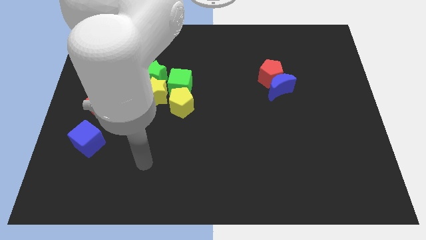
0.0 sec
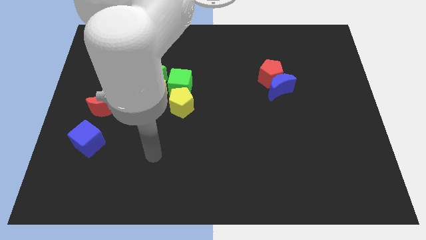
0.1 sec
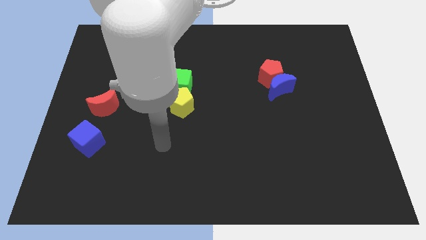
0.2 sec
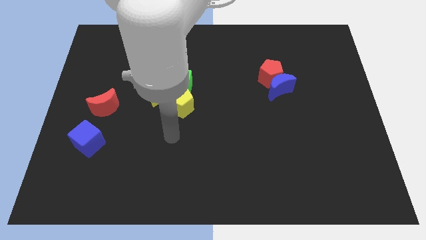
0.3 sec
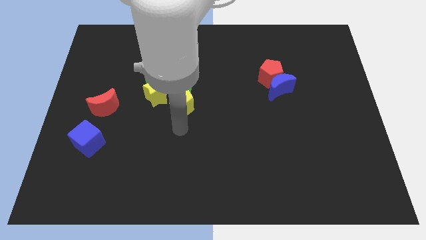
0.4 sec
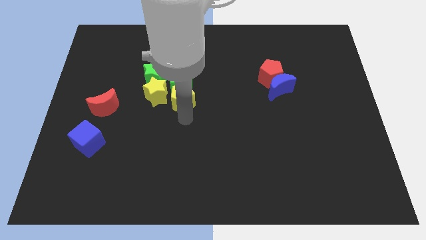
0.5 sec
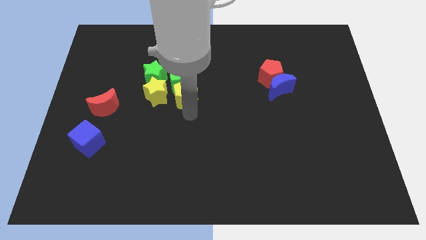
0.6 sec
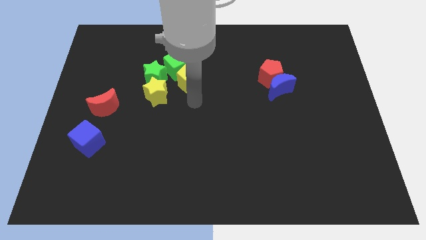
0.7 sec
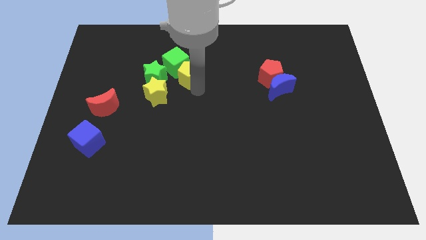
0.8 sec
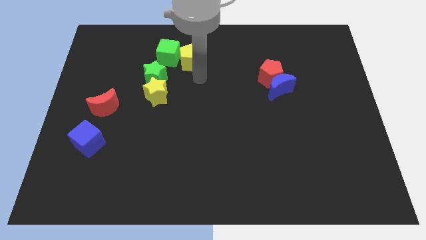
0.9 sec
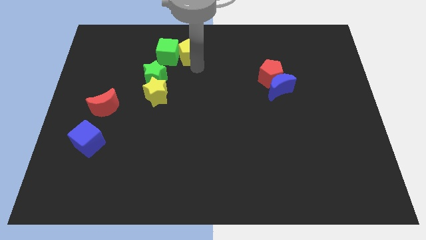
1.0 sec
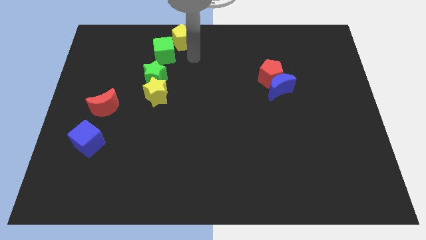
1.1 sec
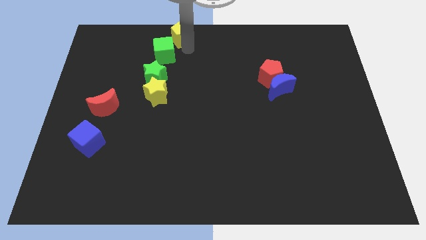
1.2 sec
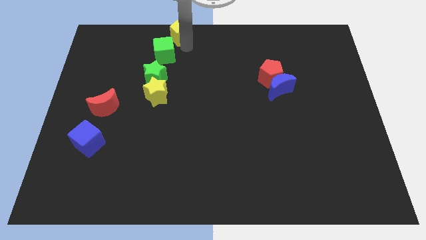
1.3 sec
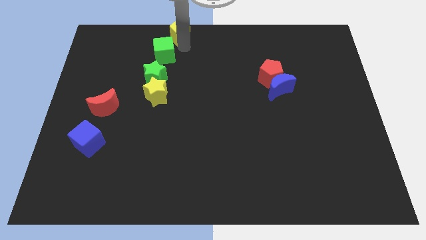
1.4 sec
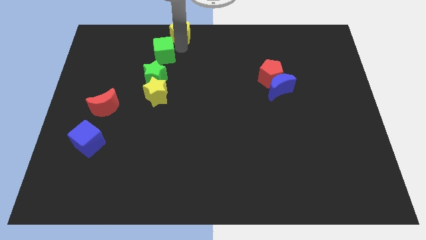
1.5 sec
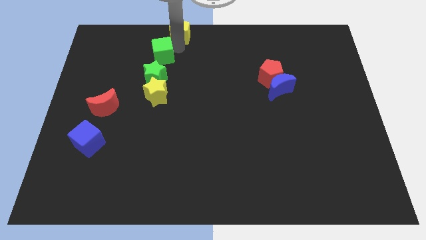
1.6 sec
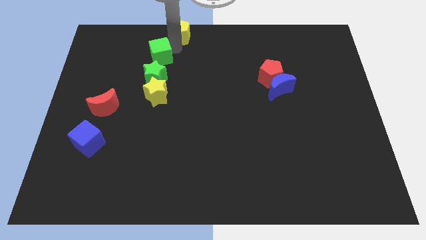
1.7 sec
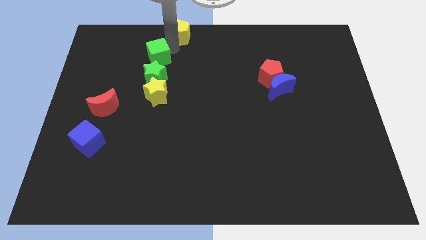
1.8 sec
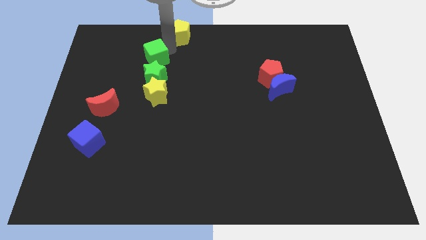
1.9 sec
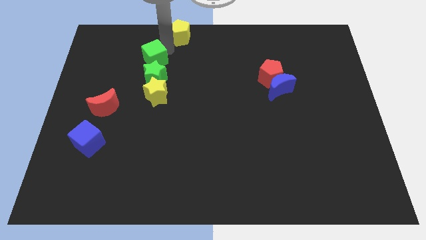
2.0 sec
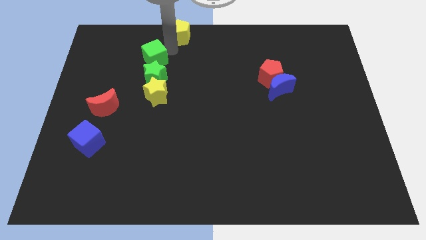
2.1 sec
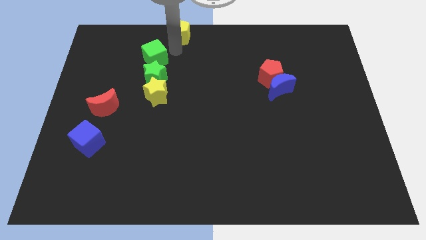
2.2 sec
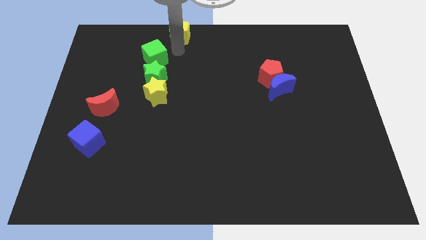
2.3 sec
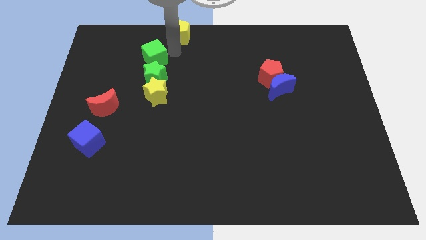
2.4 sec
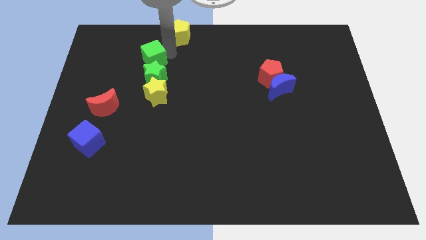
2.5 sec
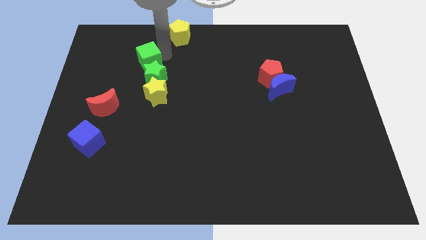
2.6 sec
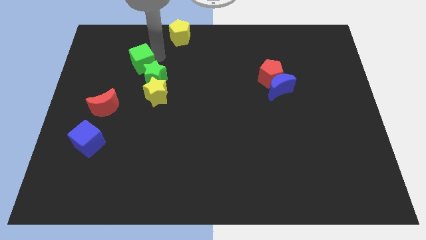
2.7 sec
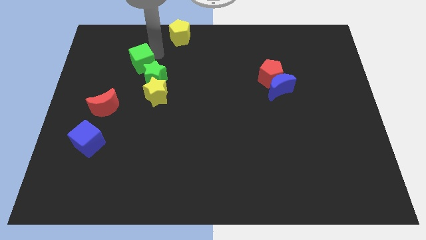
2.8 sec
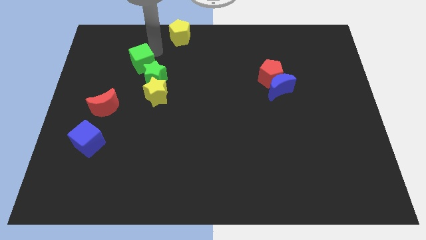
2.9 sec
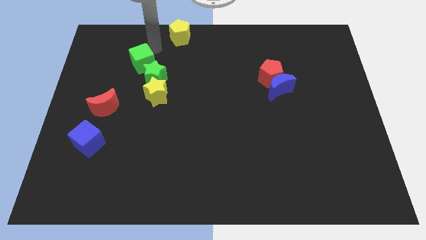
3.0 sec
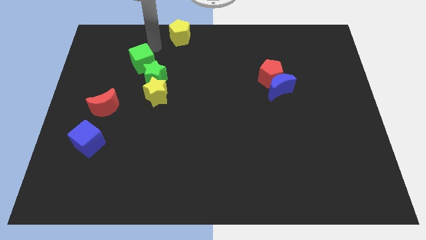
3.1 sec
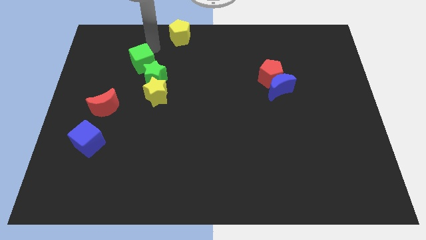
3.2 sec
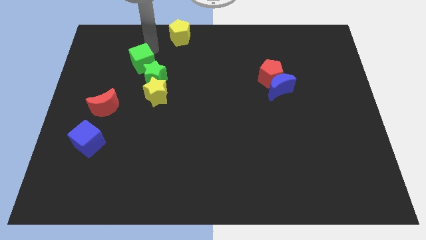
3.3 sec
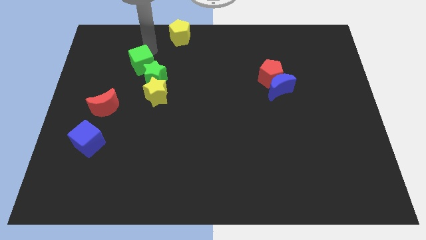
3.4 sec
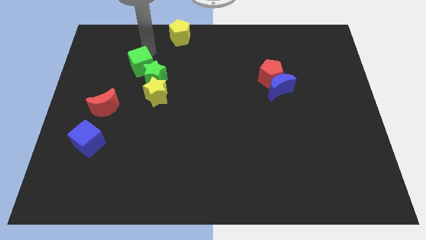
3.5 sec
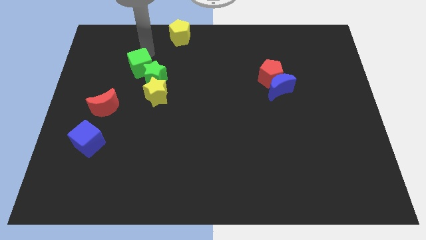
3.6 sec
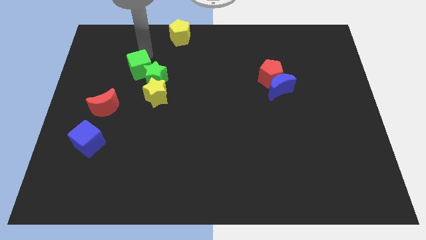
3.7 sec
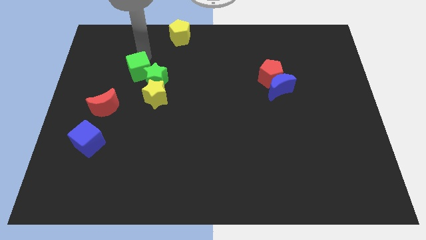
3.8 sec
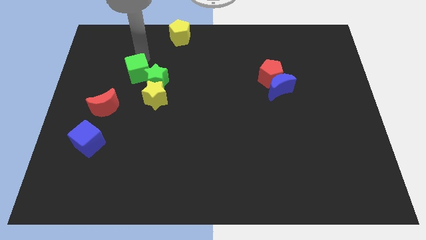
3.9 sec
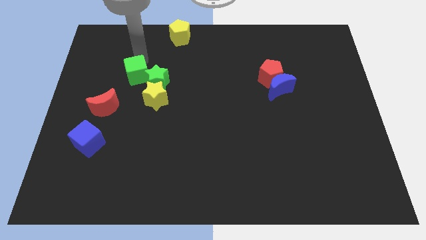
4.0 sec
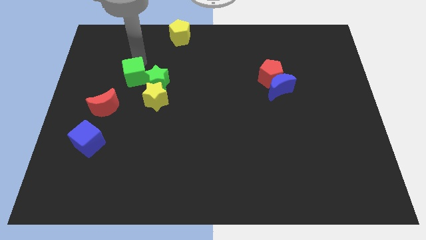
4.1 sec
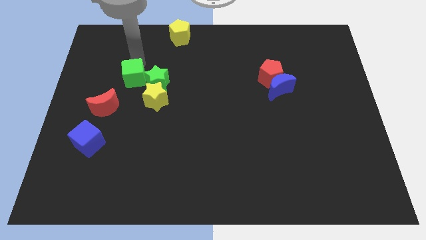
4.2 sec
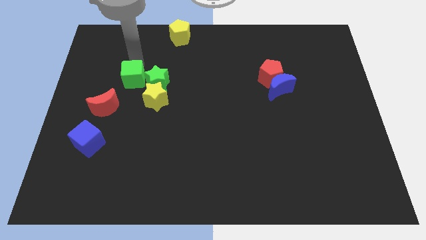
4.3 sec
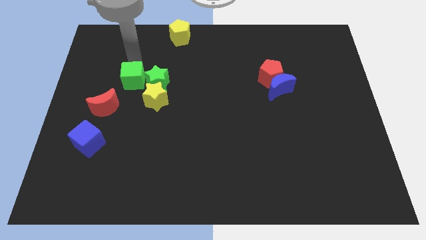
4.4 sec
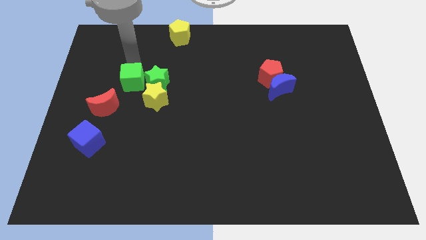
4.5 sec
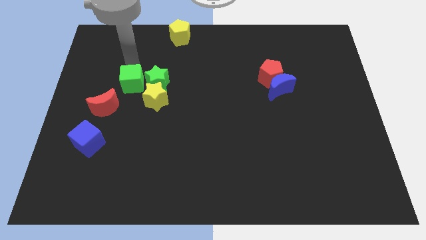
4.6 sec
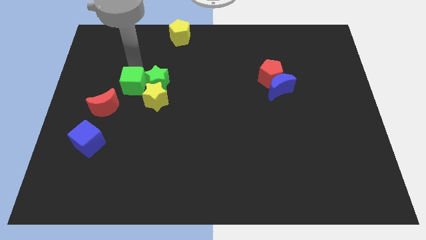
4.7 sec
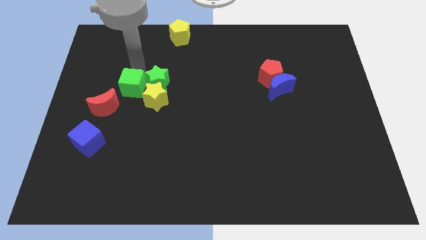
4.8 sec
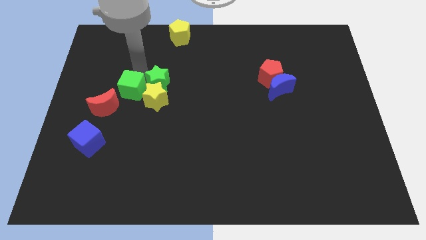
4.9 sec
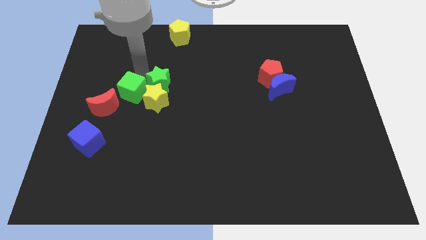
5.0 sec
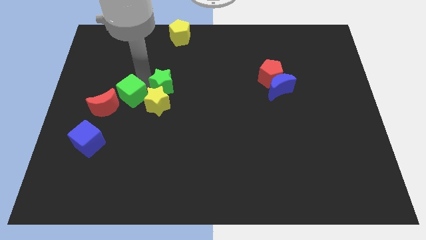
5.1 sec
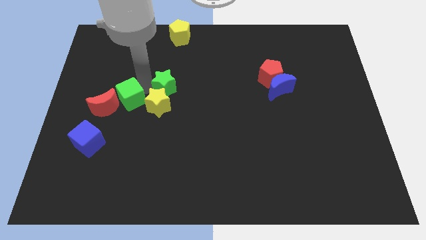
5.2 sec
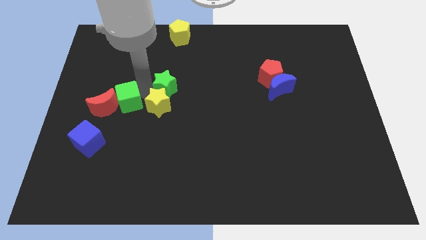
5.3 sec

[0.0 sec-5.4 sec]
put the green cube close to the red moon

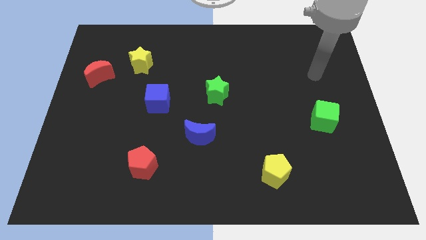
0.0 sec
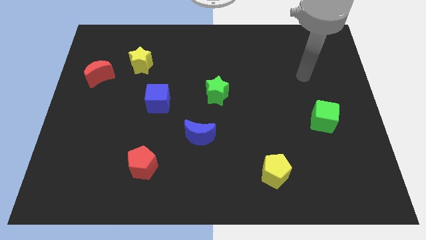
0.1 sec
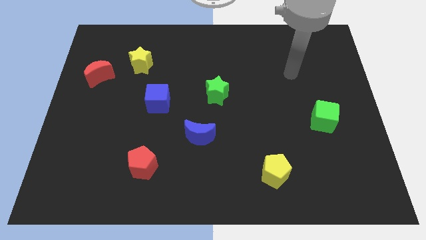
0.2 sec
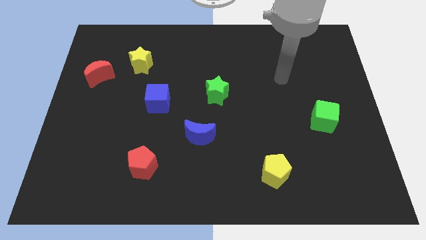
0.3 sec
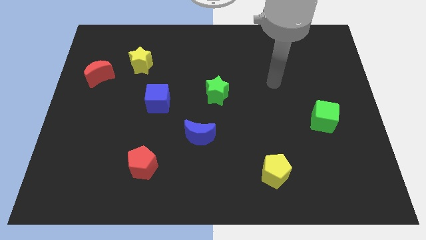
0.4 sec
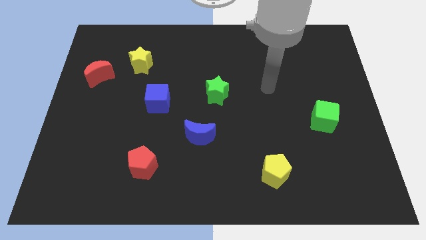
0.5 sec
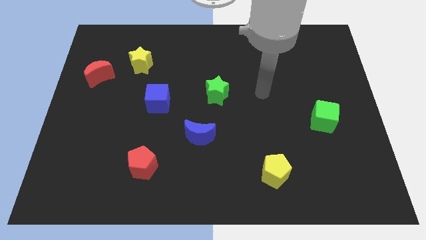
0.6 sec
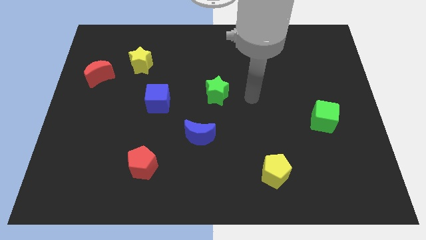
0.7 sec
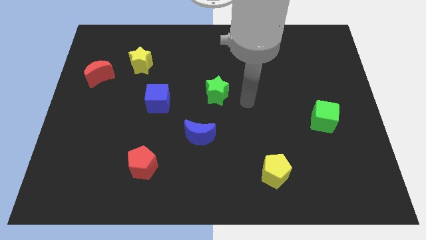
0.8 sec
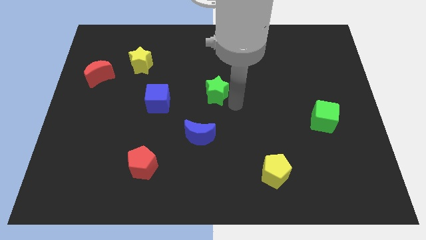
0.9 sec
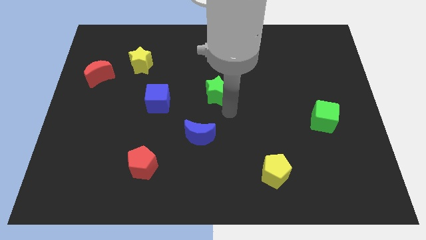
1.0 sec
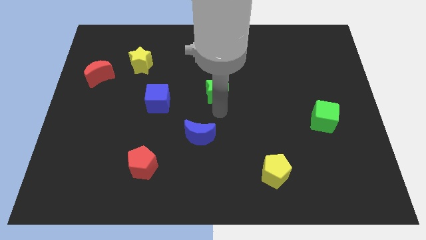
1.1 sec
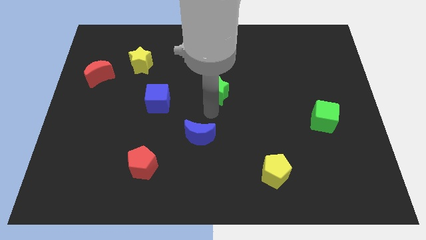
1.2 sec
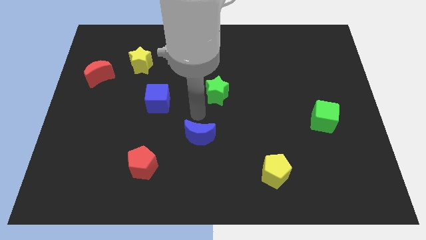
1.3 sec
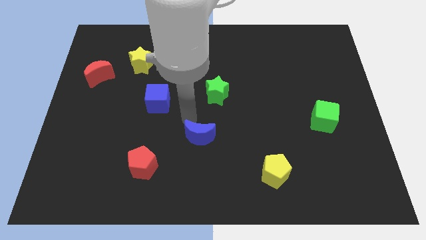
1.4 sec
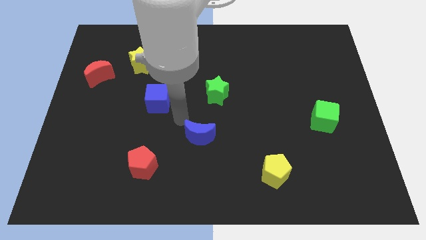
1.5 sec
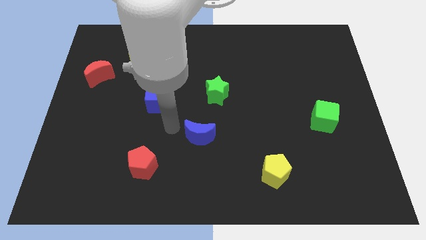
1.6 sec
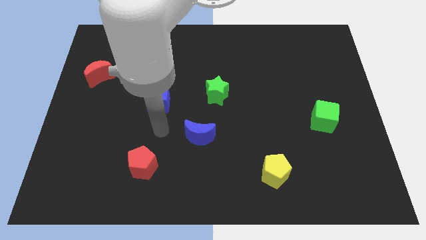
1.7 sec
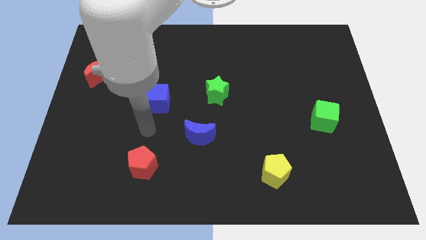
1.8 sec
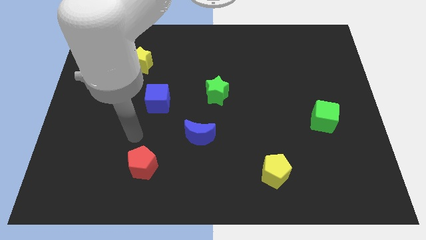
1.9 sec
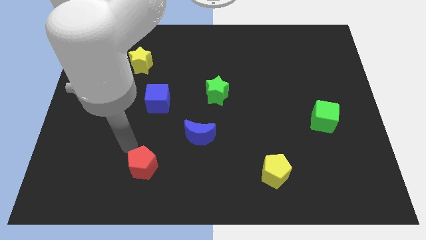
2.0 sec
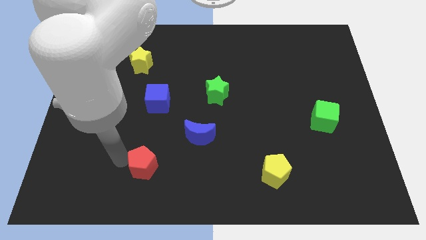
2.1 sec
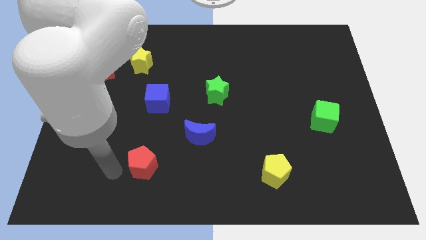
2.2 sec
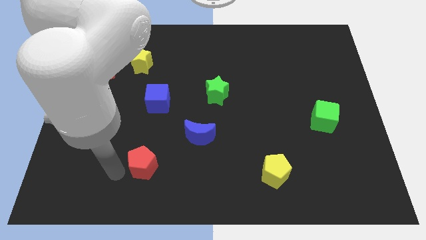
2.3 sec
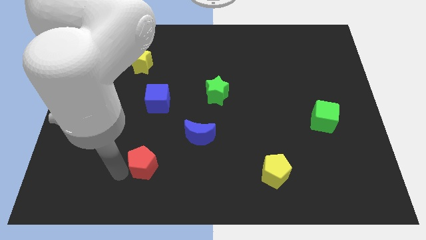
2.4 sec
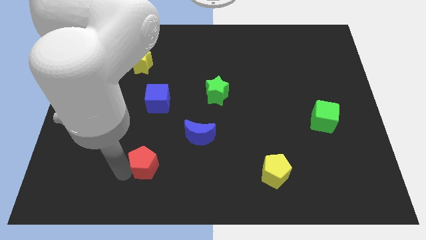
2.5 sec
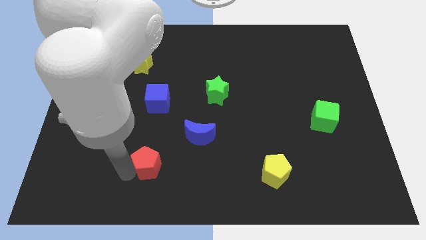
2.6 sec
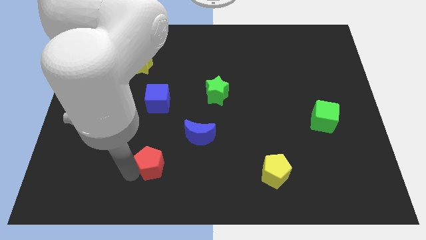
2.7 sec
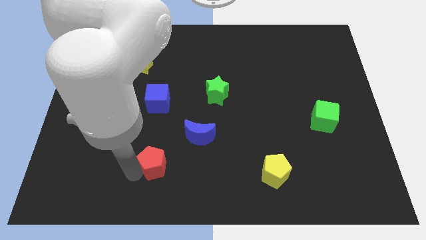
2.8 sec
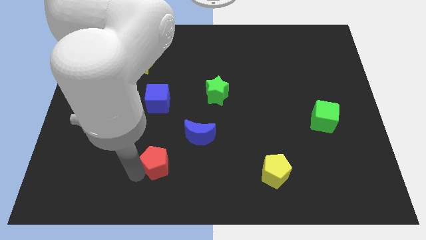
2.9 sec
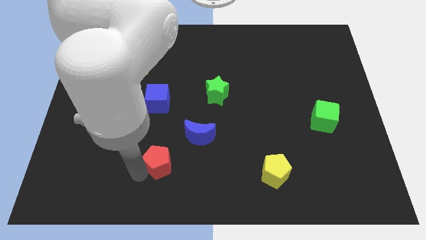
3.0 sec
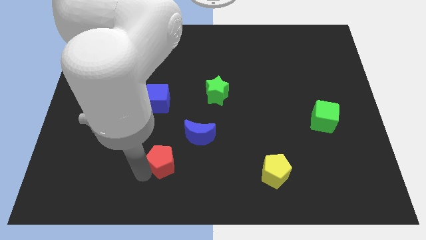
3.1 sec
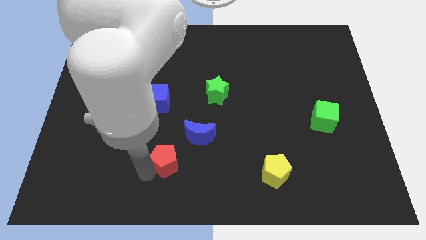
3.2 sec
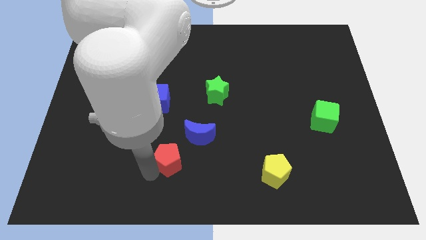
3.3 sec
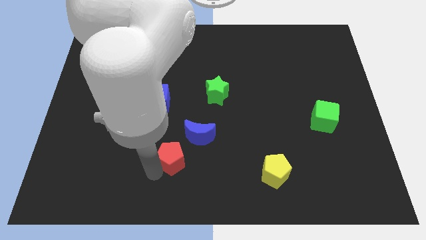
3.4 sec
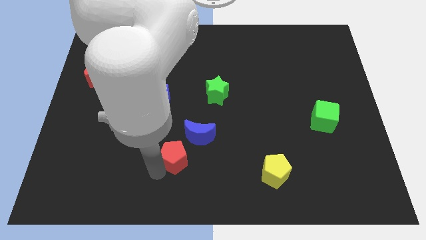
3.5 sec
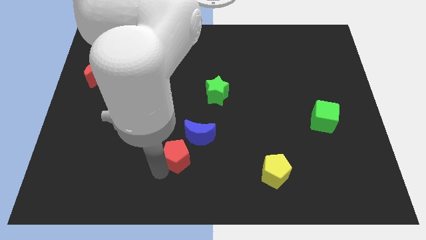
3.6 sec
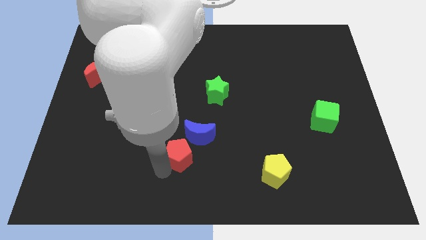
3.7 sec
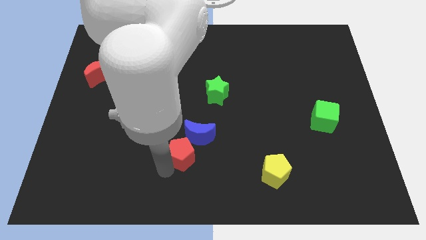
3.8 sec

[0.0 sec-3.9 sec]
put the red pentagon next to the blue moon
